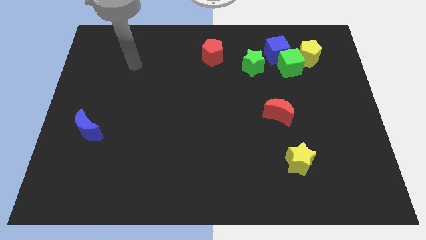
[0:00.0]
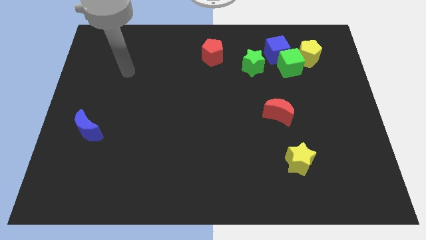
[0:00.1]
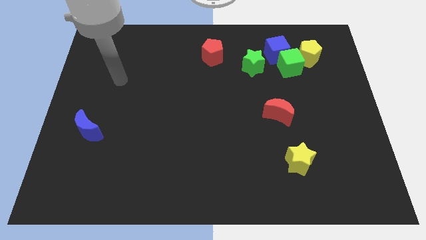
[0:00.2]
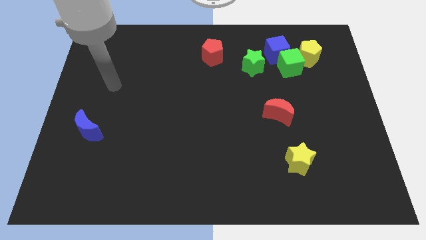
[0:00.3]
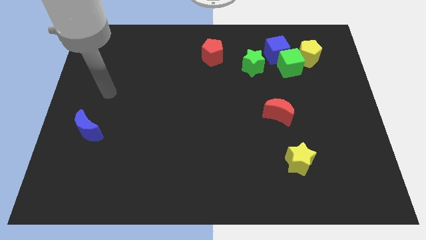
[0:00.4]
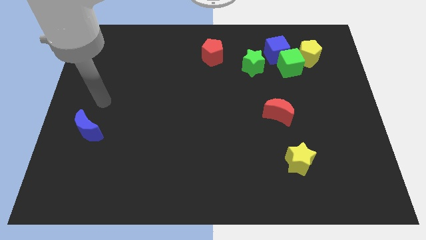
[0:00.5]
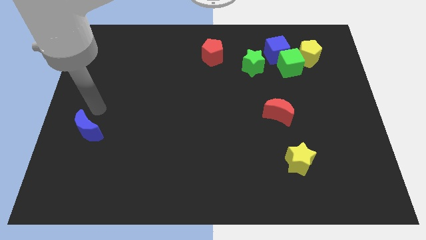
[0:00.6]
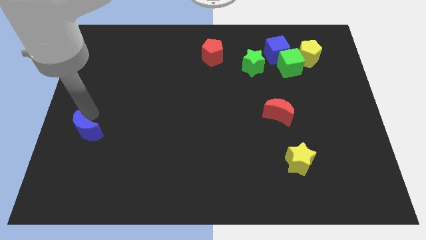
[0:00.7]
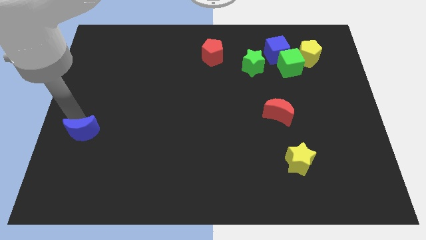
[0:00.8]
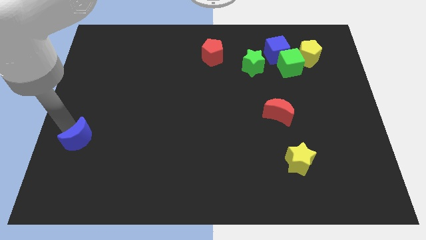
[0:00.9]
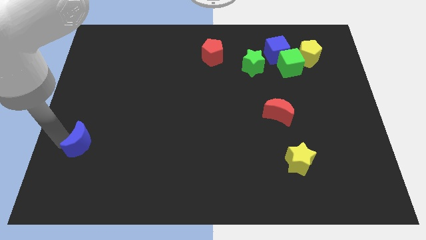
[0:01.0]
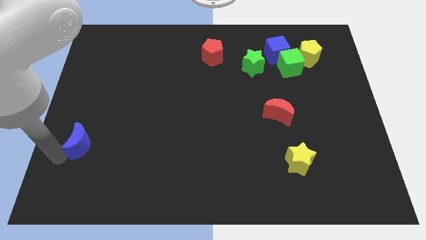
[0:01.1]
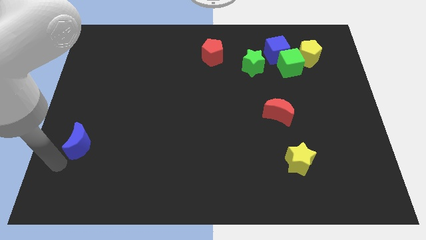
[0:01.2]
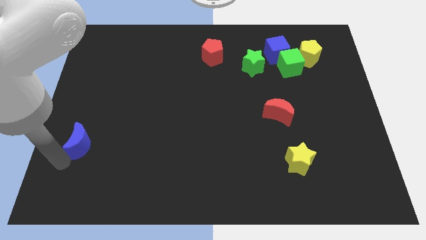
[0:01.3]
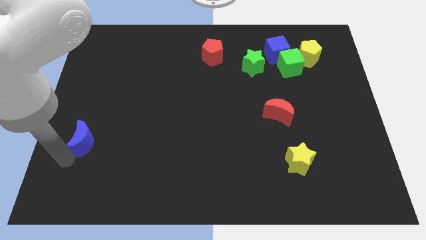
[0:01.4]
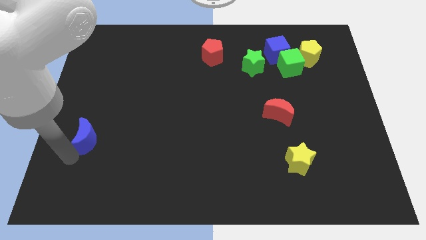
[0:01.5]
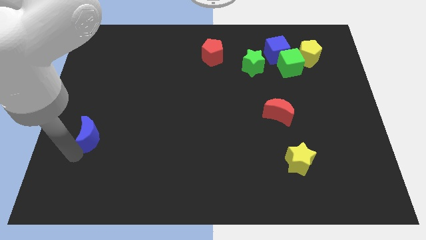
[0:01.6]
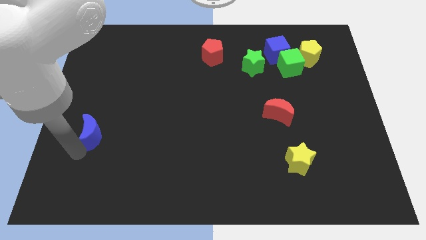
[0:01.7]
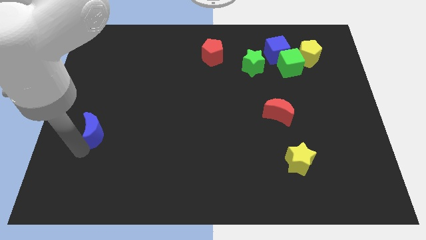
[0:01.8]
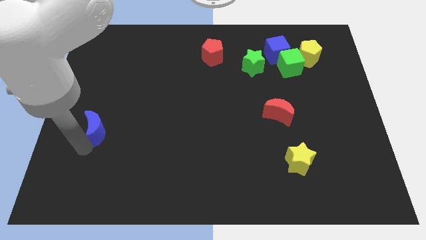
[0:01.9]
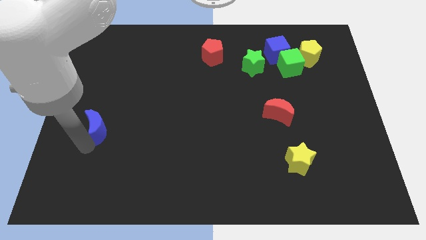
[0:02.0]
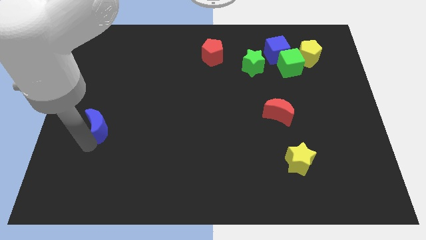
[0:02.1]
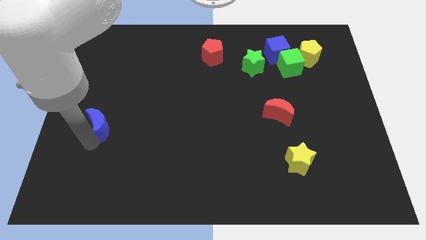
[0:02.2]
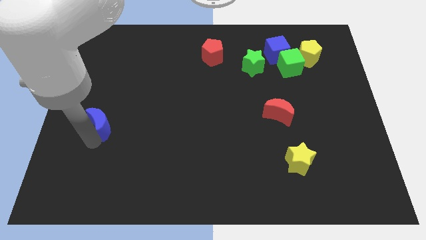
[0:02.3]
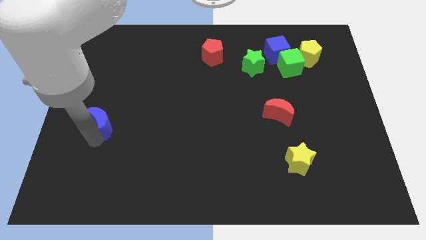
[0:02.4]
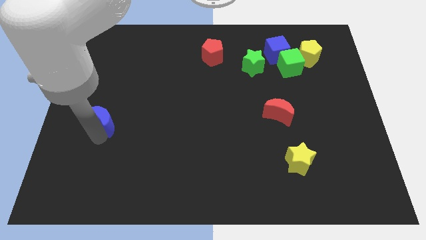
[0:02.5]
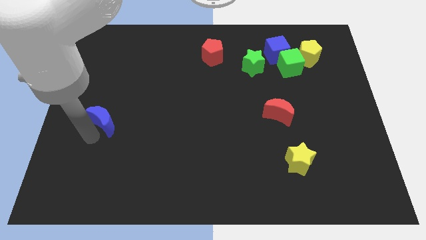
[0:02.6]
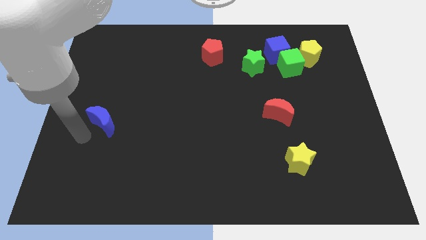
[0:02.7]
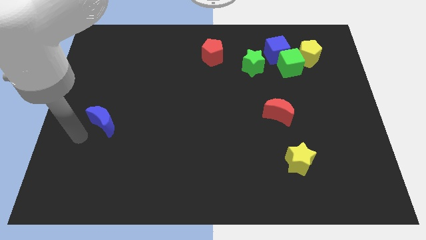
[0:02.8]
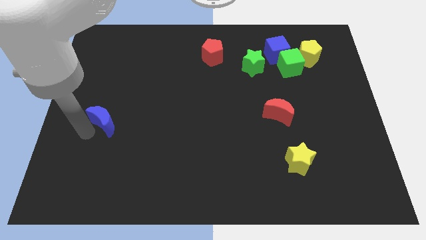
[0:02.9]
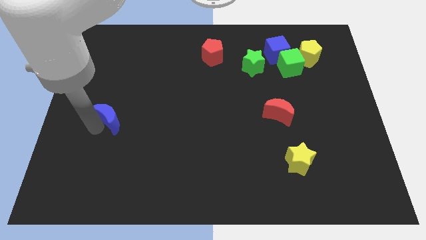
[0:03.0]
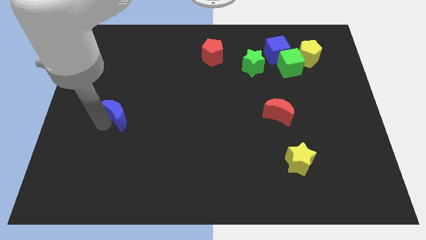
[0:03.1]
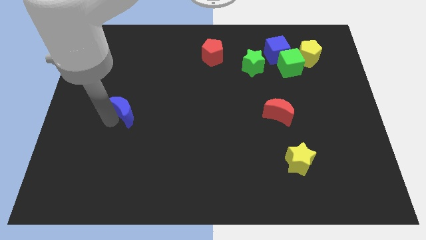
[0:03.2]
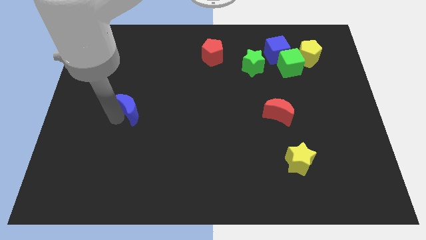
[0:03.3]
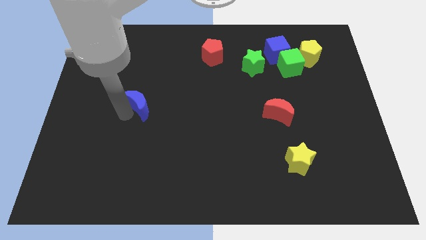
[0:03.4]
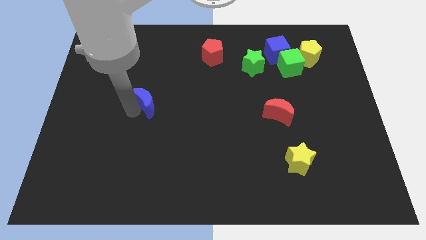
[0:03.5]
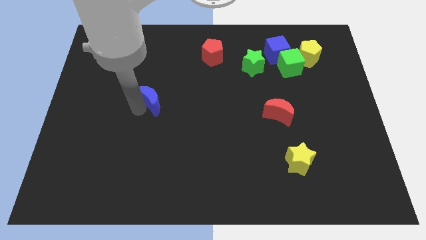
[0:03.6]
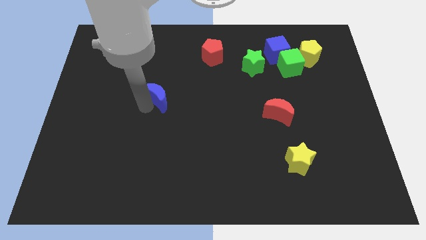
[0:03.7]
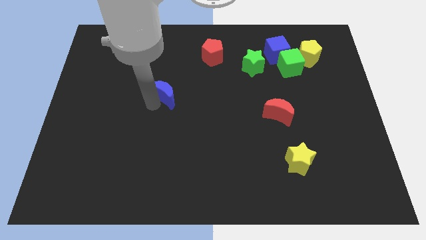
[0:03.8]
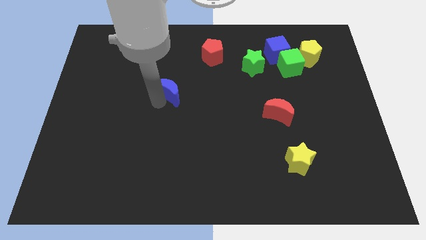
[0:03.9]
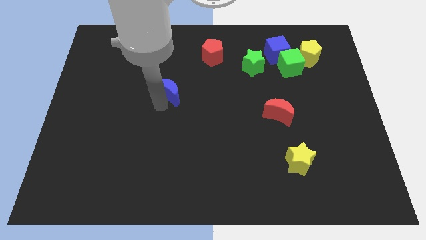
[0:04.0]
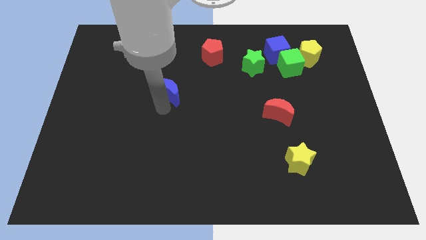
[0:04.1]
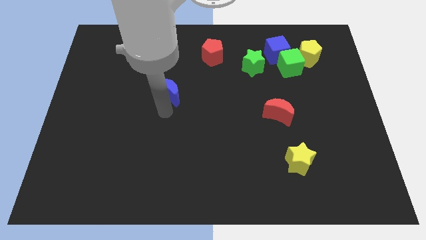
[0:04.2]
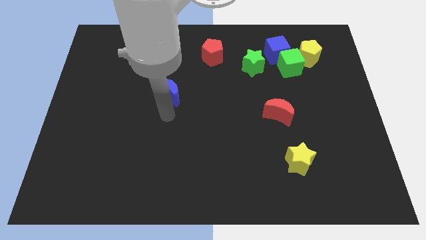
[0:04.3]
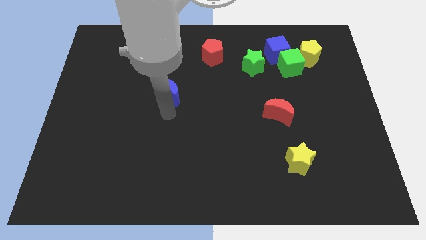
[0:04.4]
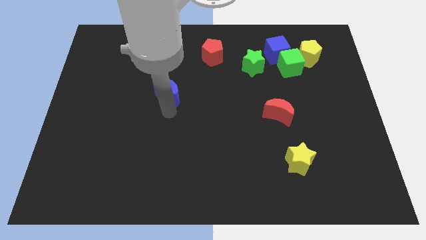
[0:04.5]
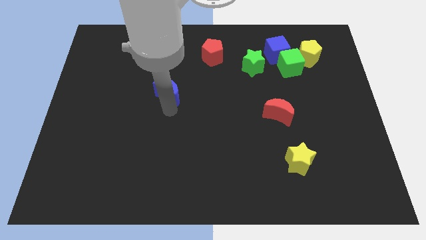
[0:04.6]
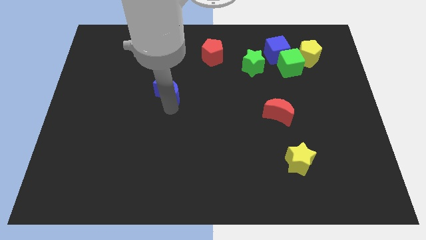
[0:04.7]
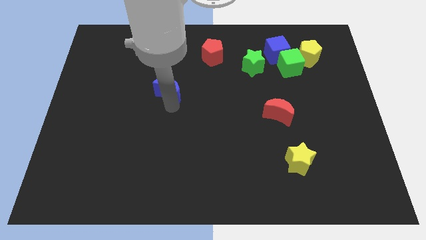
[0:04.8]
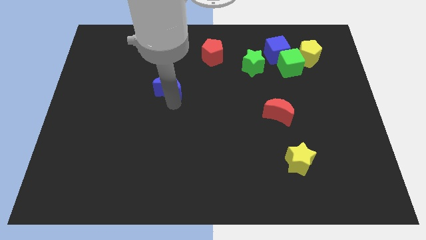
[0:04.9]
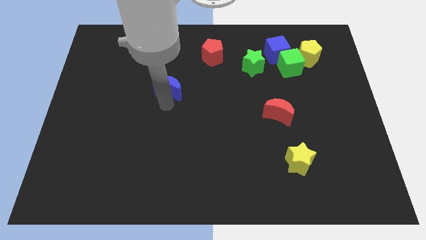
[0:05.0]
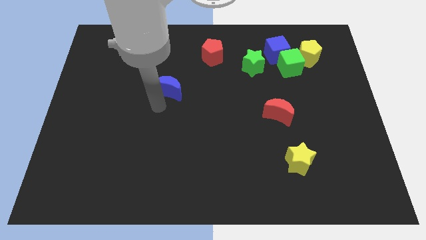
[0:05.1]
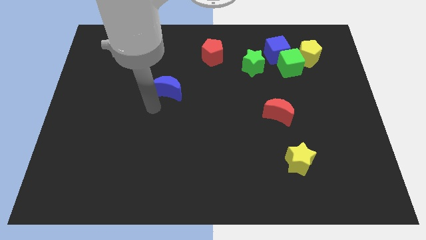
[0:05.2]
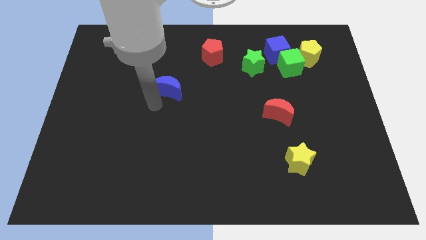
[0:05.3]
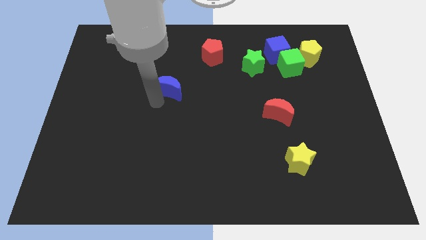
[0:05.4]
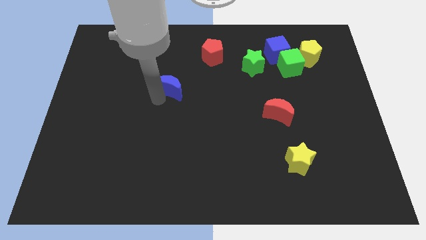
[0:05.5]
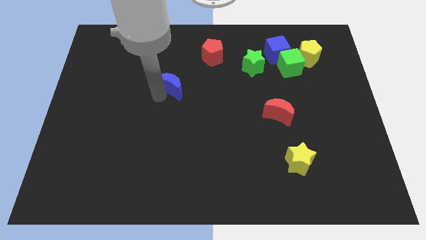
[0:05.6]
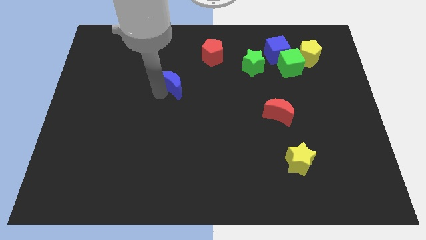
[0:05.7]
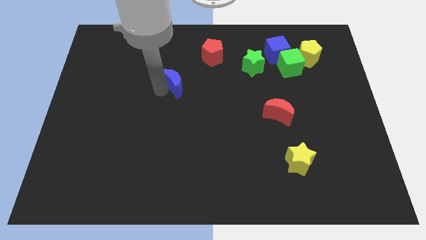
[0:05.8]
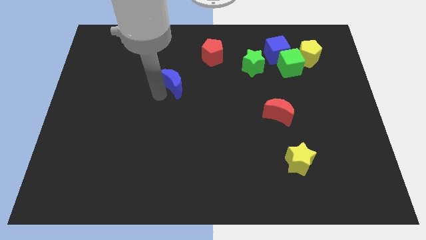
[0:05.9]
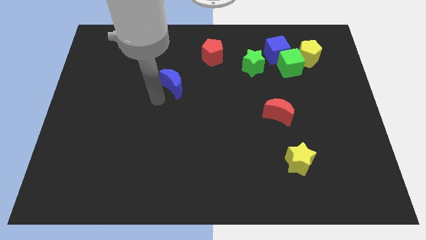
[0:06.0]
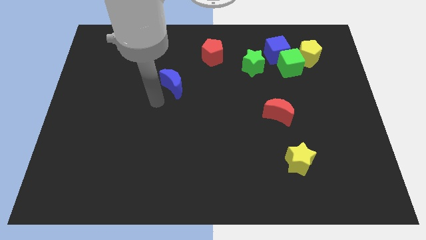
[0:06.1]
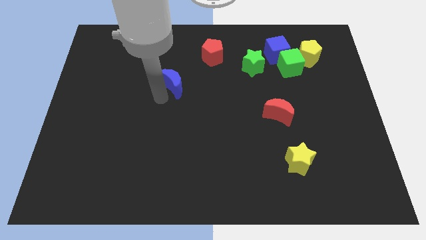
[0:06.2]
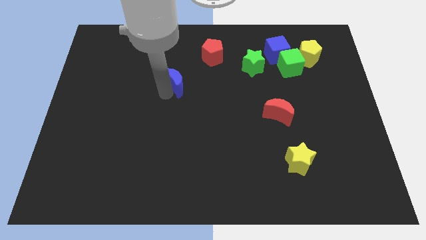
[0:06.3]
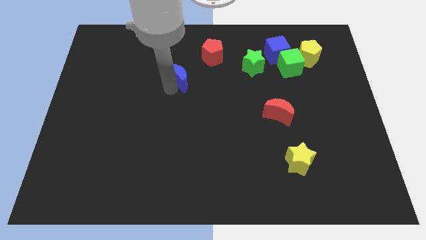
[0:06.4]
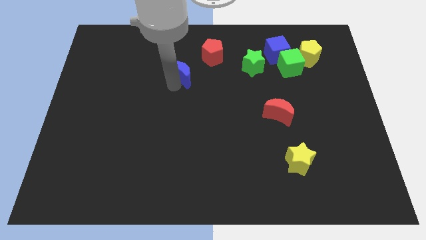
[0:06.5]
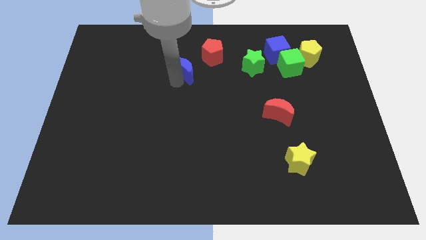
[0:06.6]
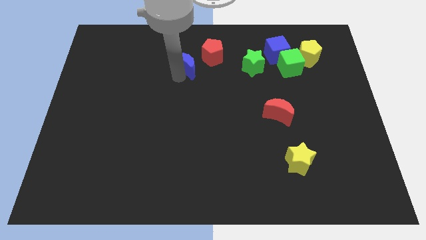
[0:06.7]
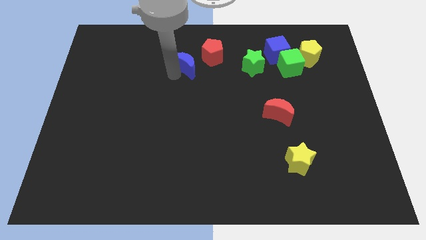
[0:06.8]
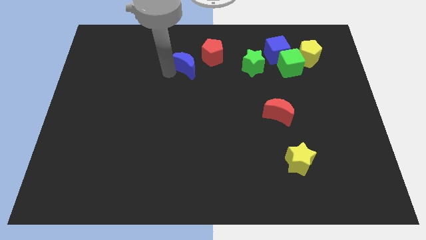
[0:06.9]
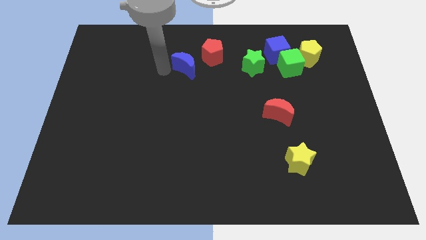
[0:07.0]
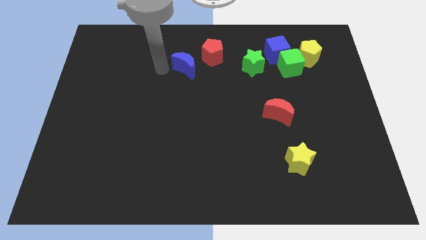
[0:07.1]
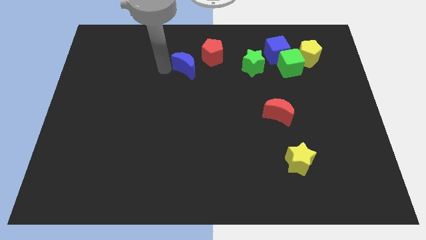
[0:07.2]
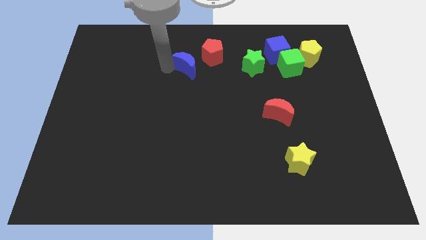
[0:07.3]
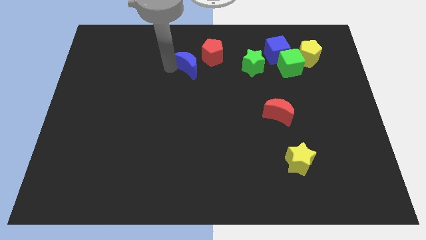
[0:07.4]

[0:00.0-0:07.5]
slide the blue moon just left of the green star
